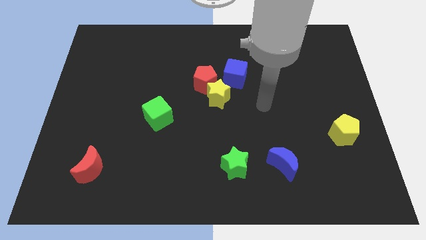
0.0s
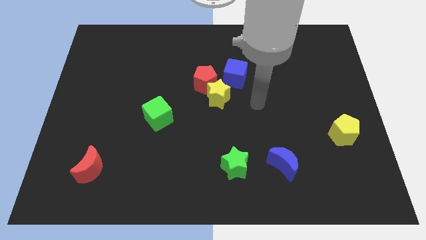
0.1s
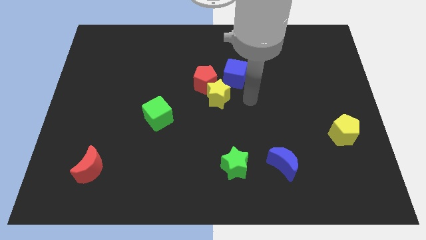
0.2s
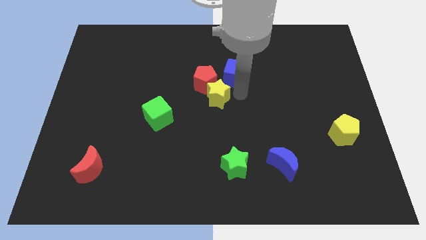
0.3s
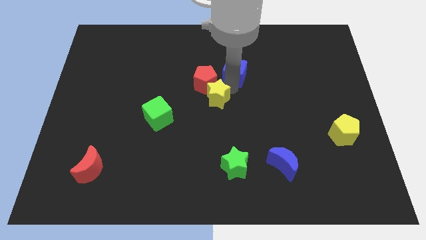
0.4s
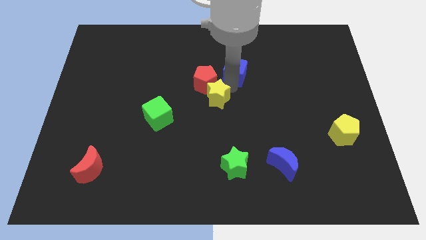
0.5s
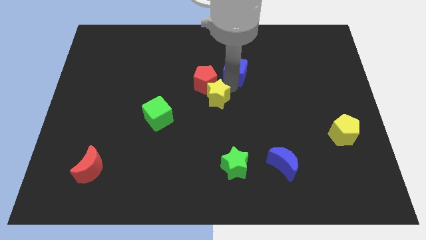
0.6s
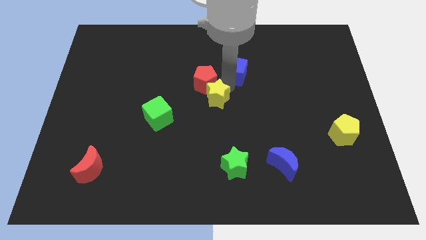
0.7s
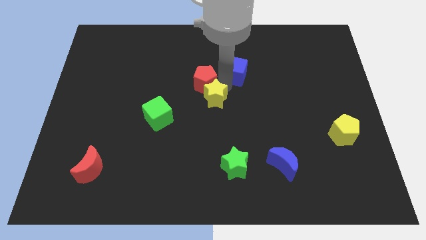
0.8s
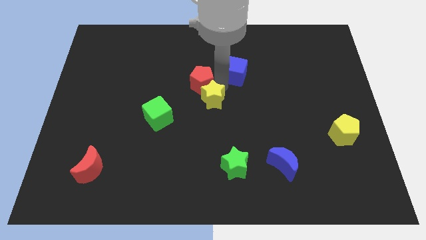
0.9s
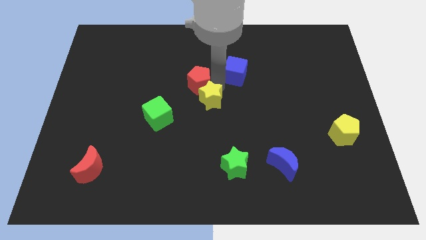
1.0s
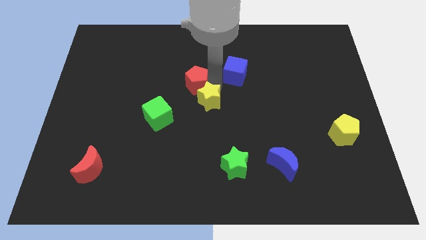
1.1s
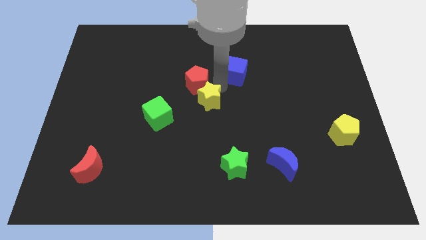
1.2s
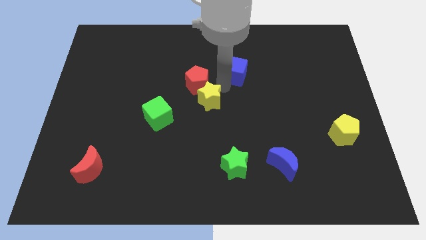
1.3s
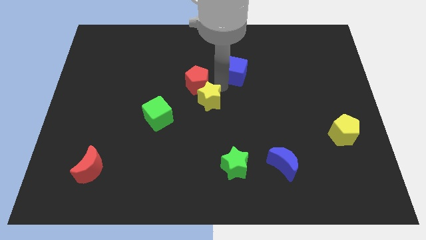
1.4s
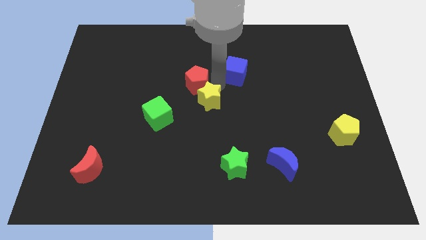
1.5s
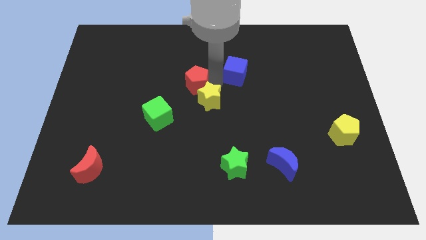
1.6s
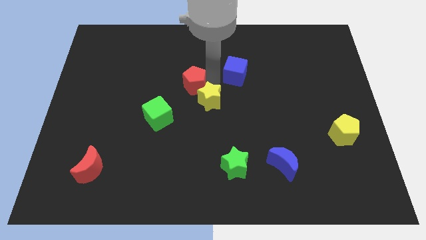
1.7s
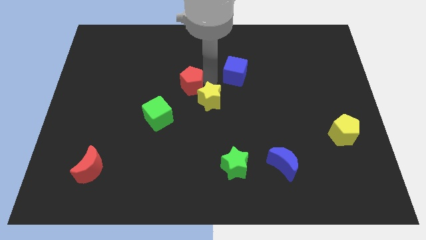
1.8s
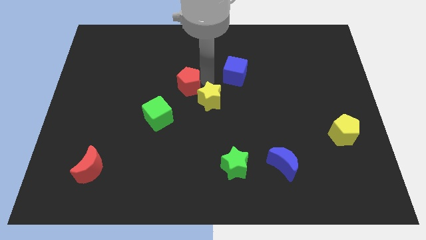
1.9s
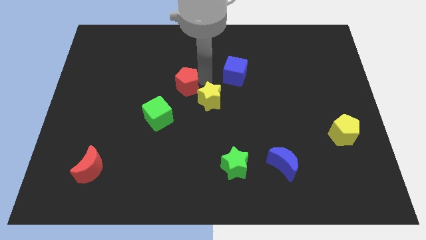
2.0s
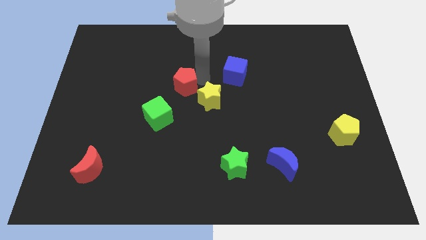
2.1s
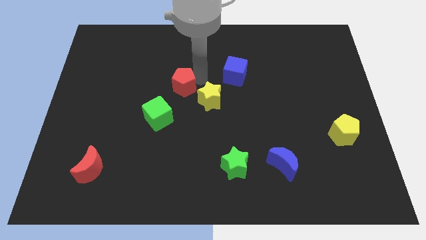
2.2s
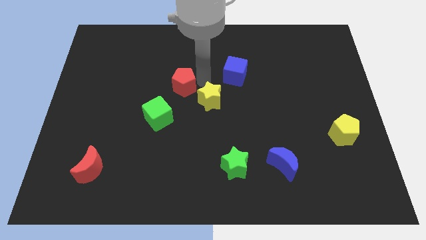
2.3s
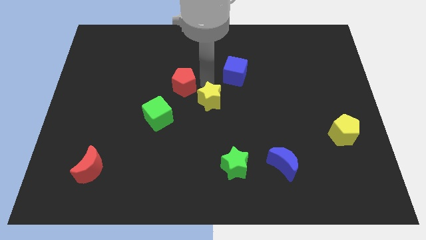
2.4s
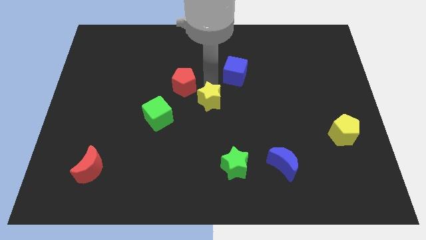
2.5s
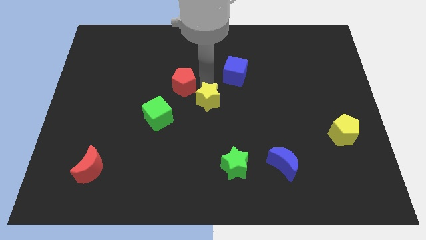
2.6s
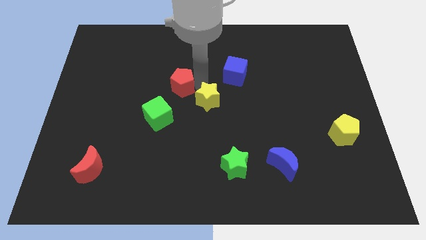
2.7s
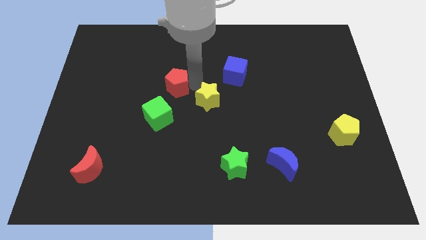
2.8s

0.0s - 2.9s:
separate the red pentagon from the yellow star and blue cube

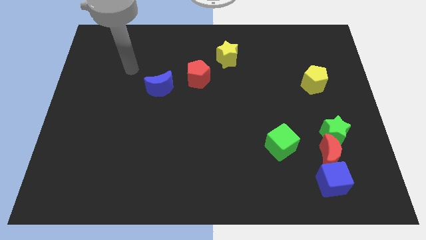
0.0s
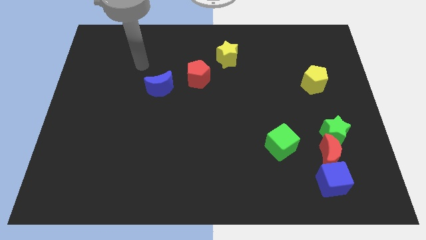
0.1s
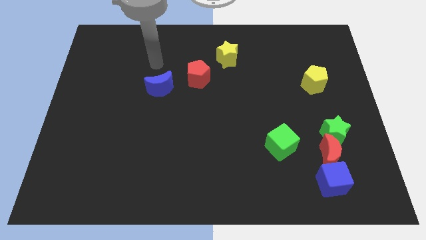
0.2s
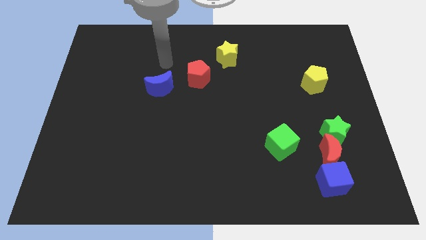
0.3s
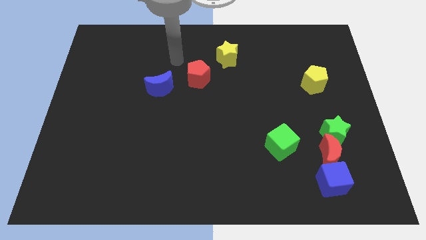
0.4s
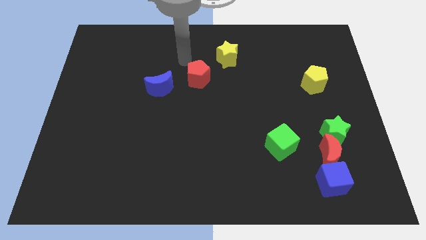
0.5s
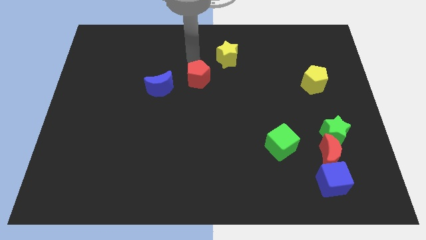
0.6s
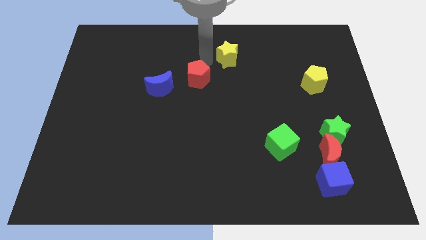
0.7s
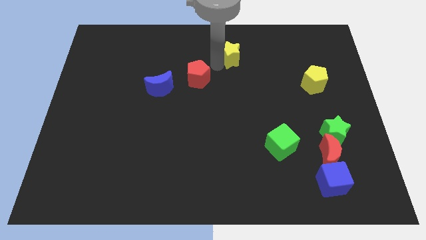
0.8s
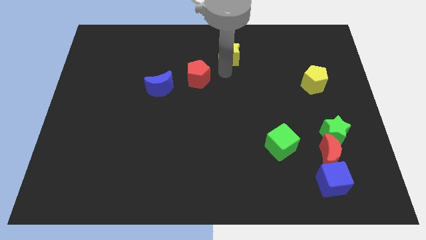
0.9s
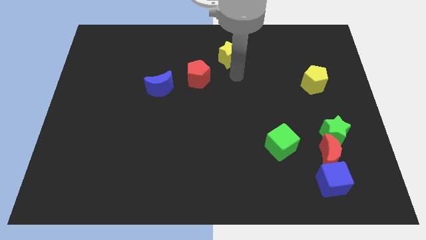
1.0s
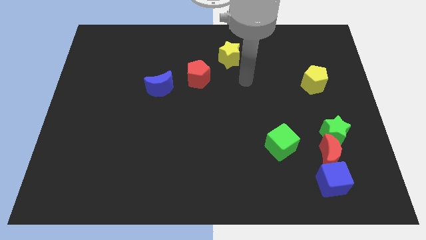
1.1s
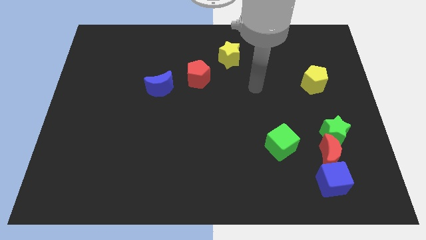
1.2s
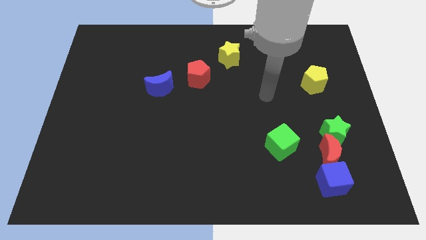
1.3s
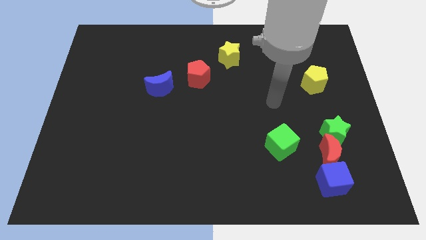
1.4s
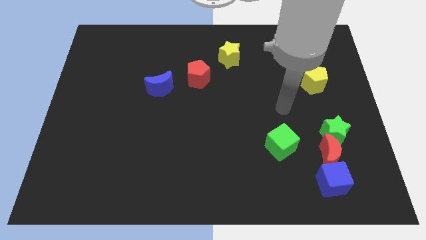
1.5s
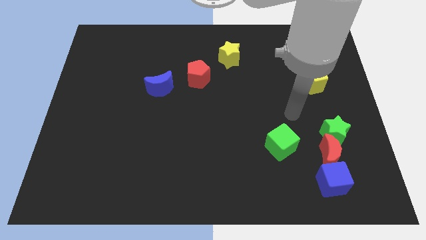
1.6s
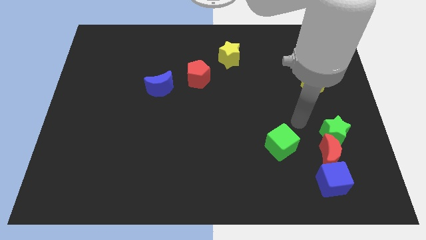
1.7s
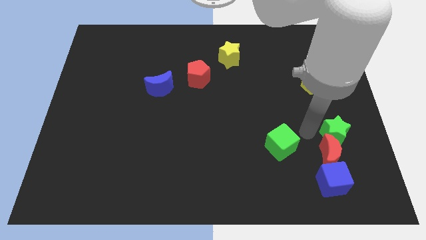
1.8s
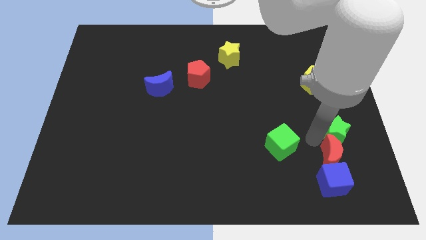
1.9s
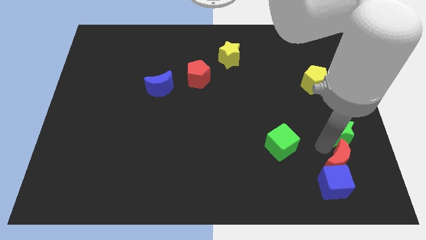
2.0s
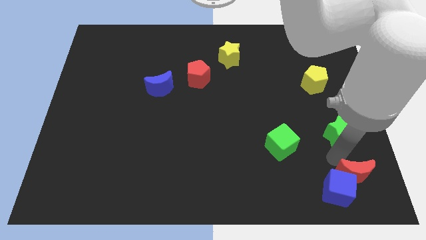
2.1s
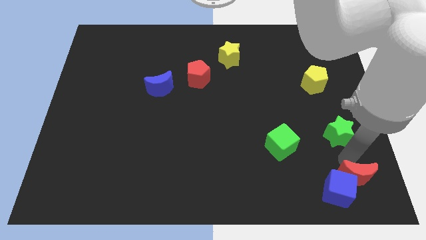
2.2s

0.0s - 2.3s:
separate the green star from the red moon

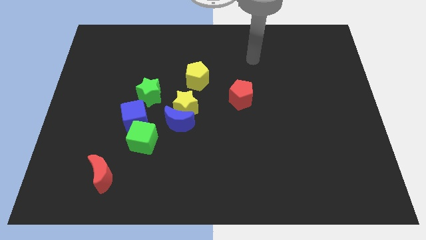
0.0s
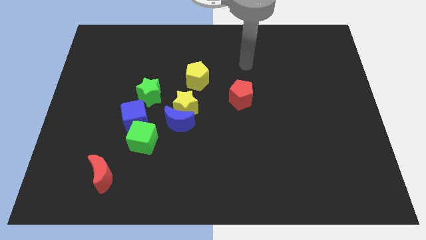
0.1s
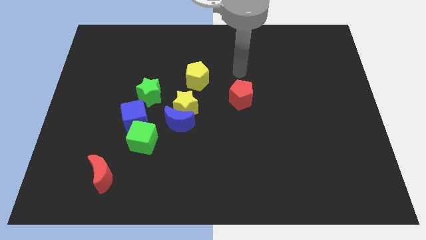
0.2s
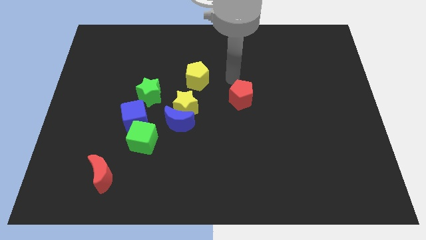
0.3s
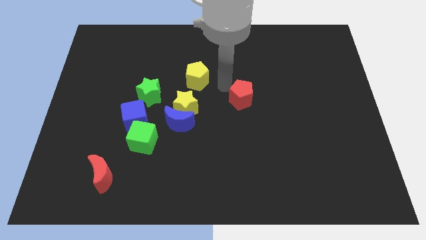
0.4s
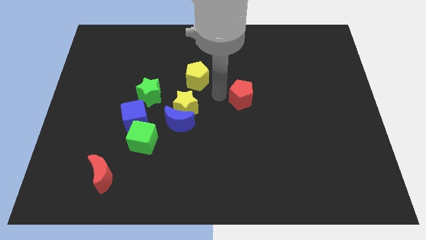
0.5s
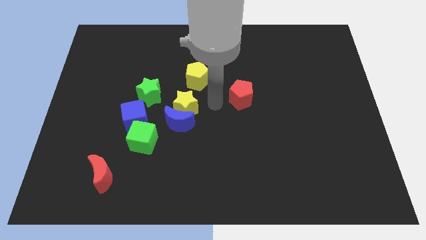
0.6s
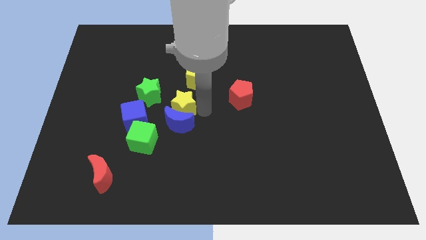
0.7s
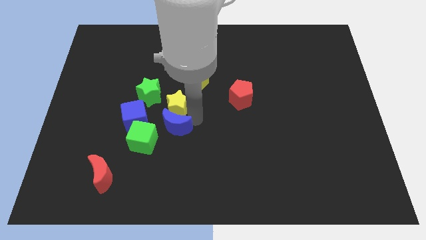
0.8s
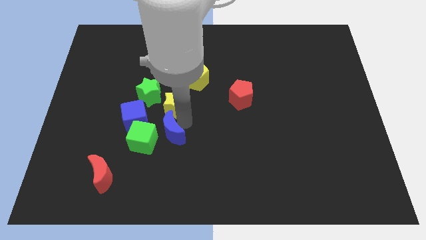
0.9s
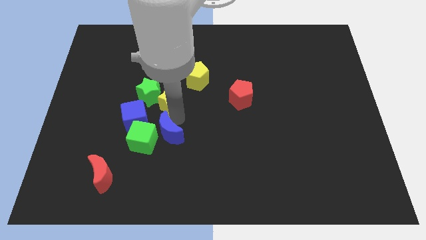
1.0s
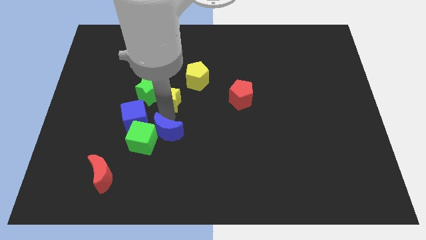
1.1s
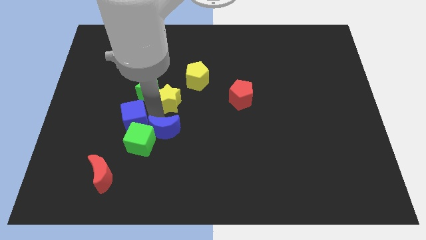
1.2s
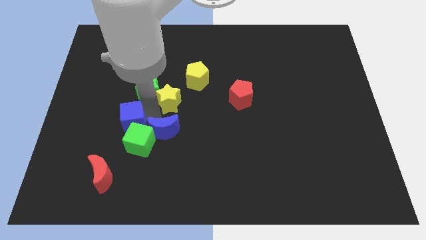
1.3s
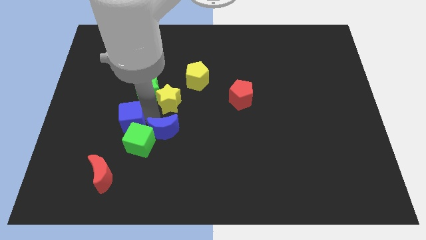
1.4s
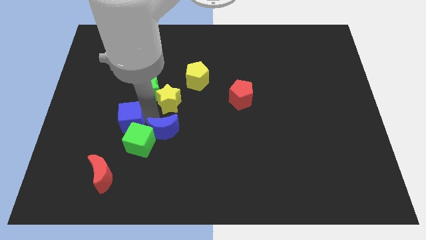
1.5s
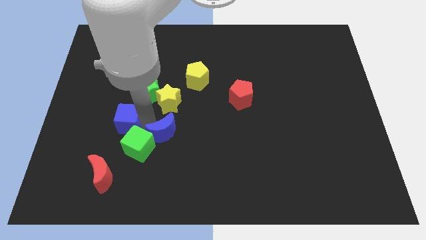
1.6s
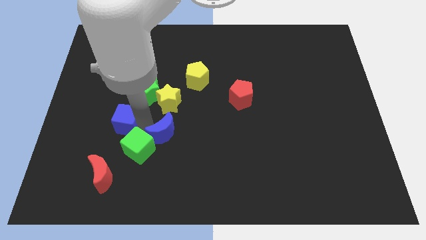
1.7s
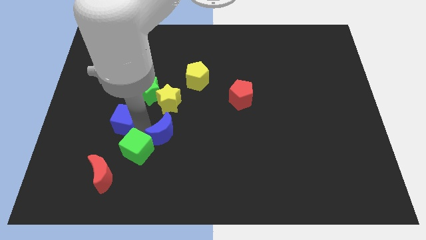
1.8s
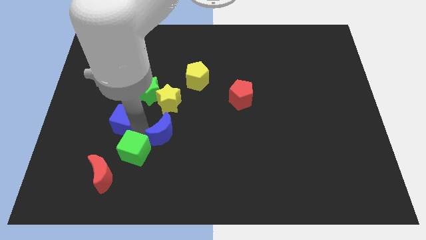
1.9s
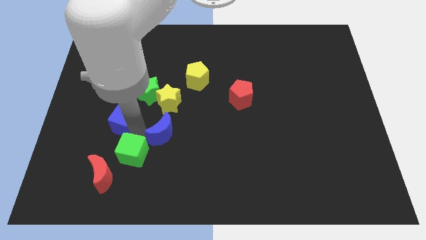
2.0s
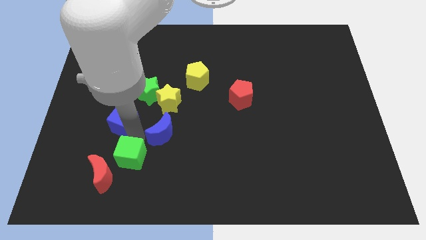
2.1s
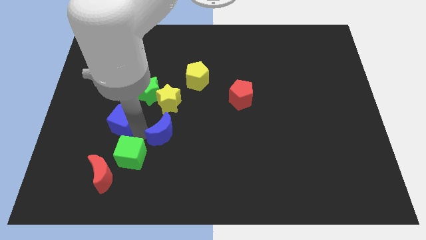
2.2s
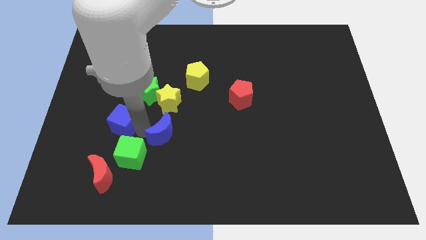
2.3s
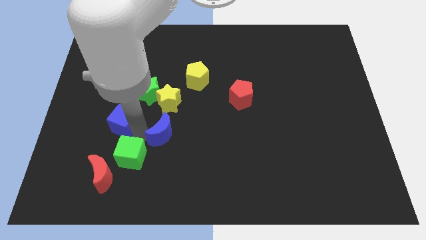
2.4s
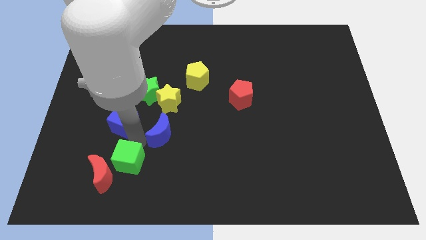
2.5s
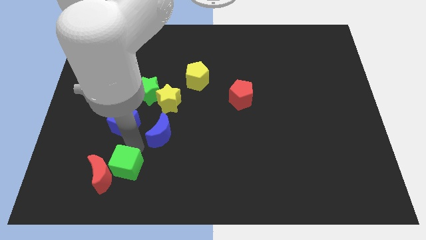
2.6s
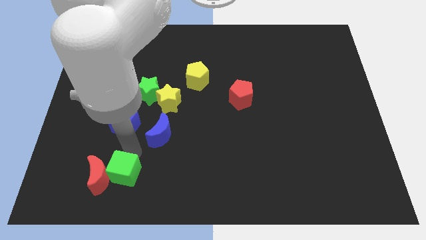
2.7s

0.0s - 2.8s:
move the green cube away from the blue cube and blue moon

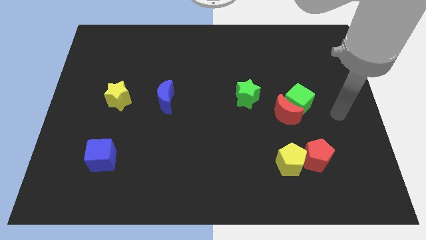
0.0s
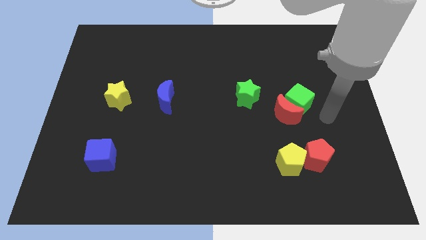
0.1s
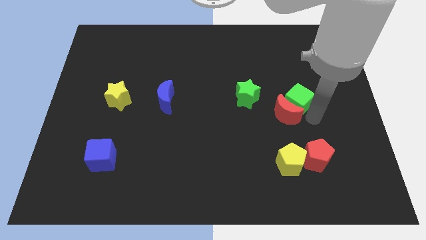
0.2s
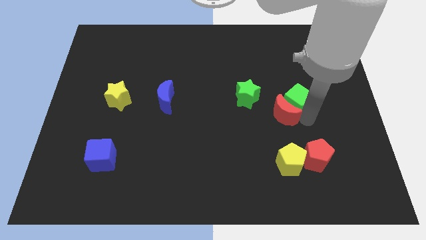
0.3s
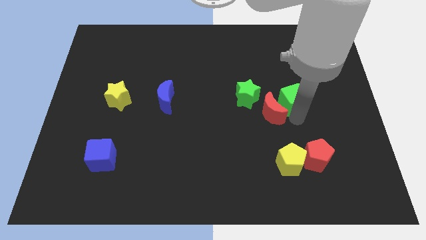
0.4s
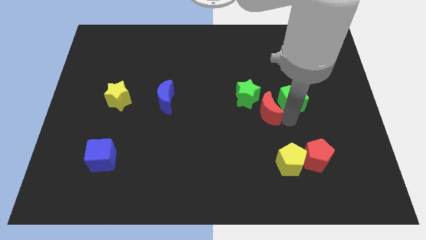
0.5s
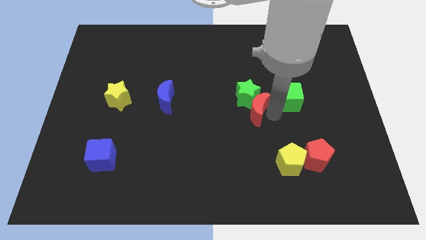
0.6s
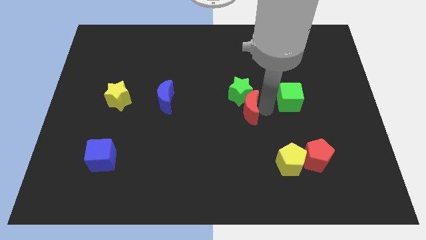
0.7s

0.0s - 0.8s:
separate the green cube from the red moon

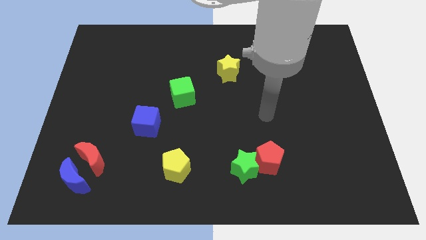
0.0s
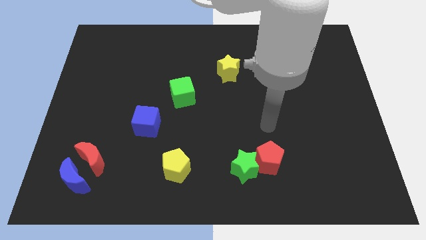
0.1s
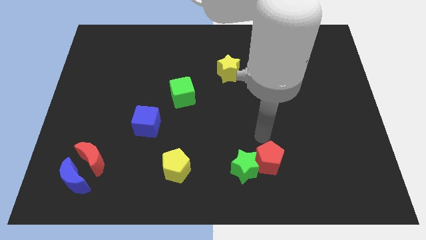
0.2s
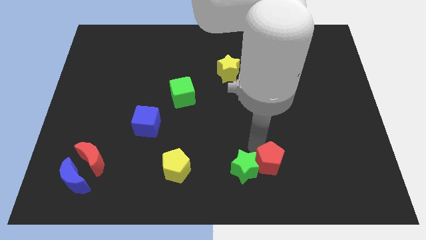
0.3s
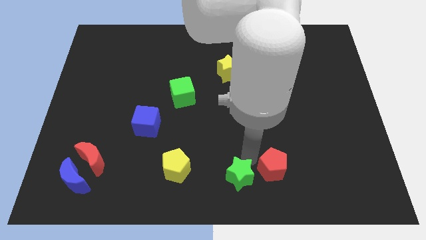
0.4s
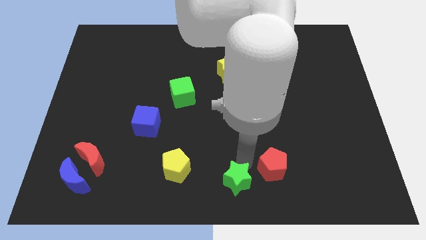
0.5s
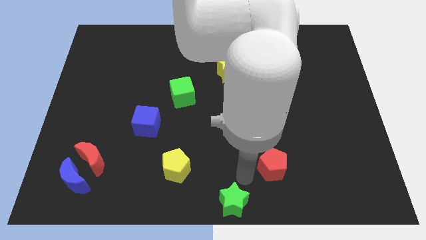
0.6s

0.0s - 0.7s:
separate the red pentagon from the green star
